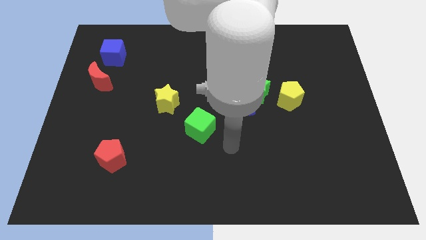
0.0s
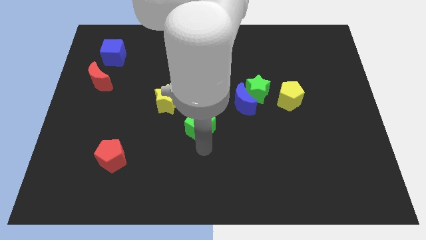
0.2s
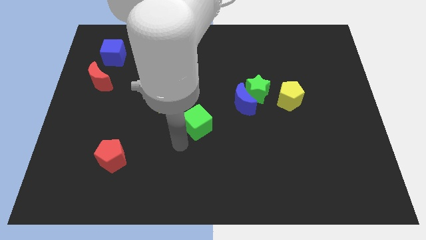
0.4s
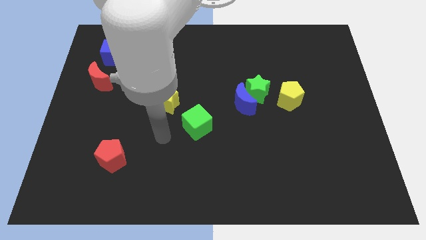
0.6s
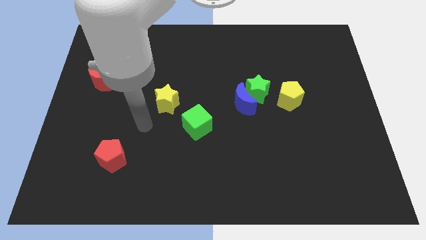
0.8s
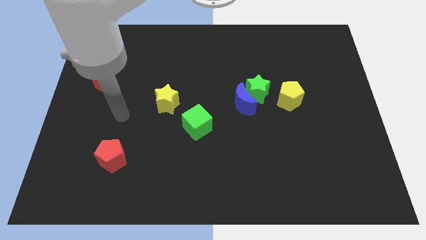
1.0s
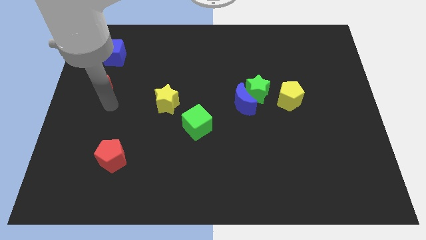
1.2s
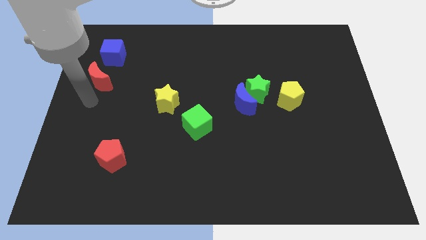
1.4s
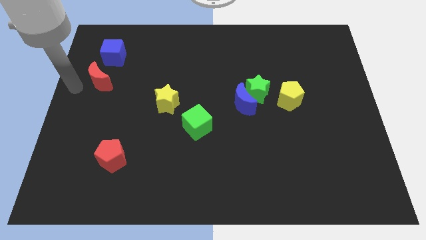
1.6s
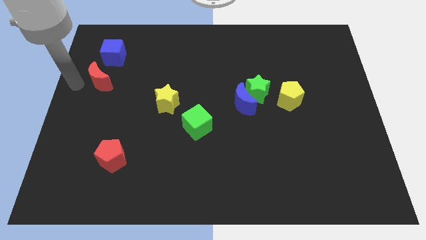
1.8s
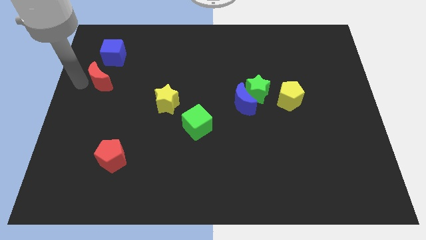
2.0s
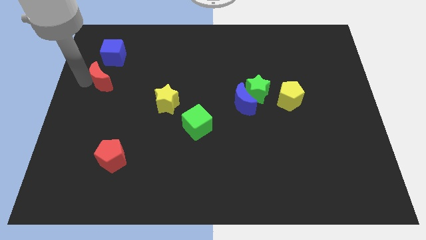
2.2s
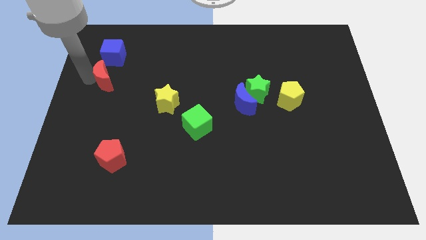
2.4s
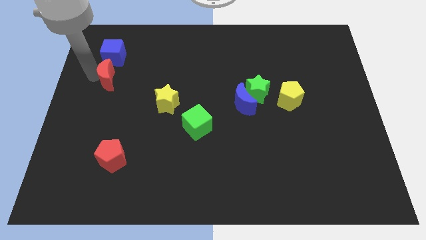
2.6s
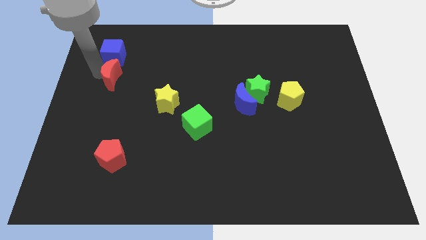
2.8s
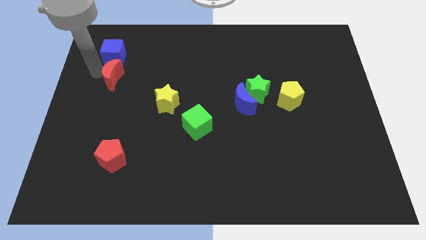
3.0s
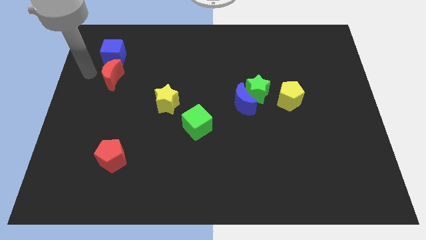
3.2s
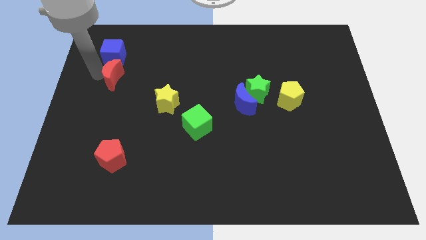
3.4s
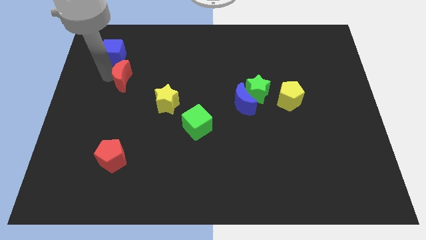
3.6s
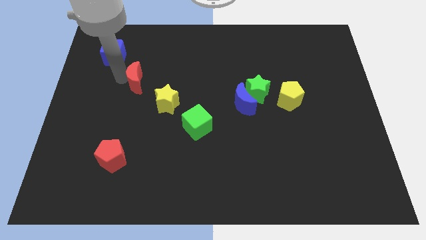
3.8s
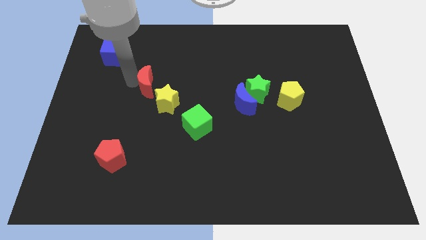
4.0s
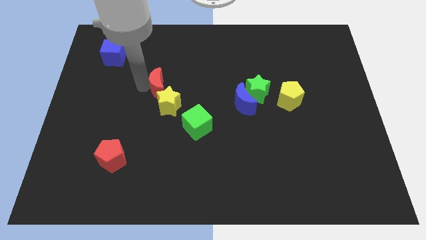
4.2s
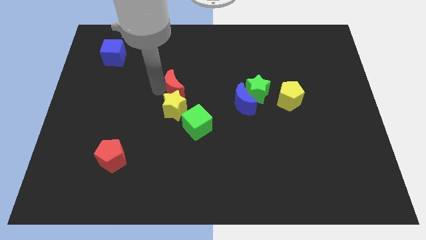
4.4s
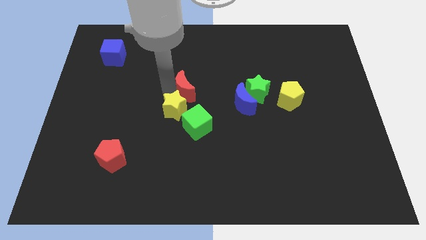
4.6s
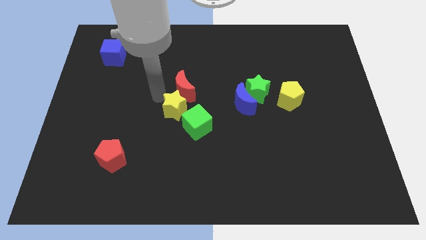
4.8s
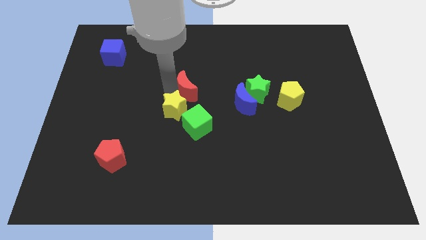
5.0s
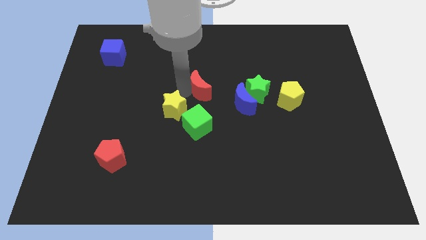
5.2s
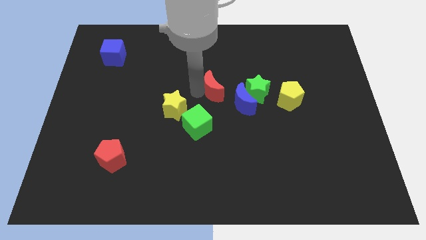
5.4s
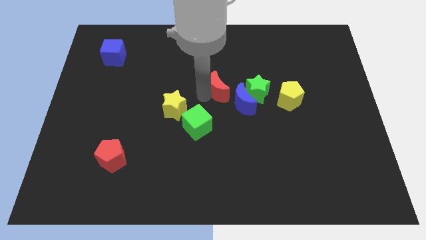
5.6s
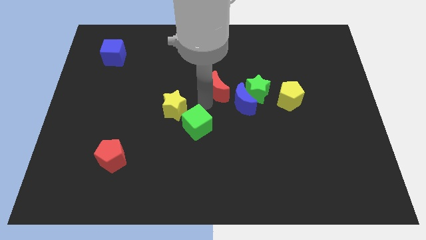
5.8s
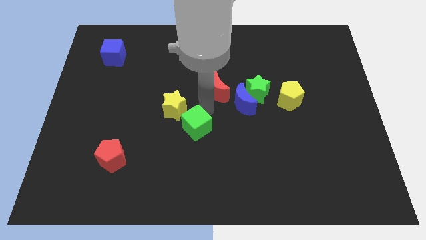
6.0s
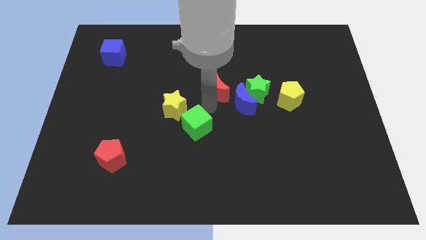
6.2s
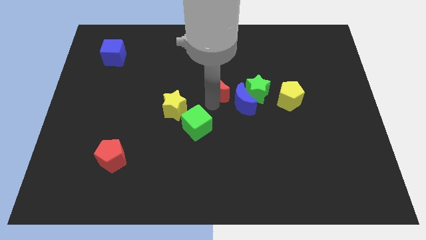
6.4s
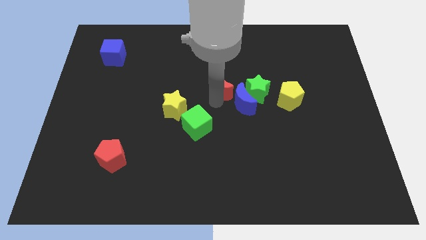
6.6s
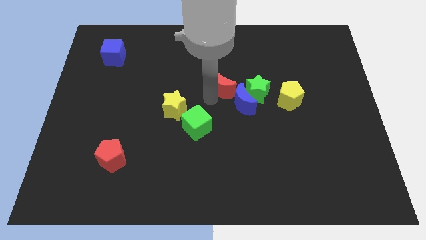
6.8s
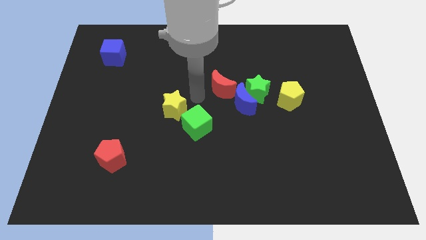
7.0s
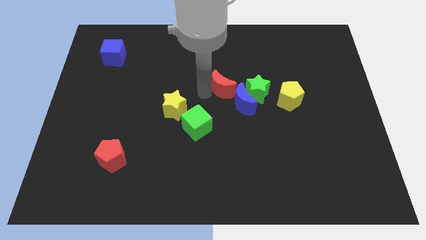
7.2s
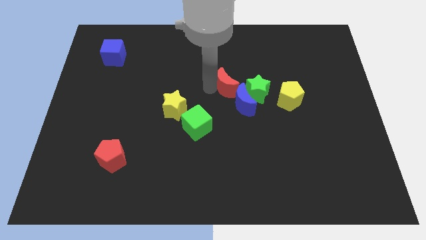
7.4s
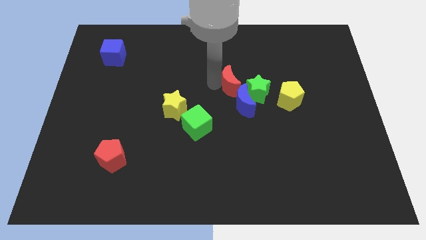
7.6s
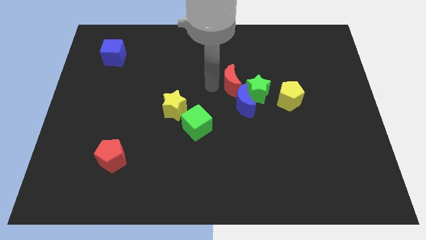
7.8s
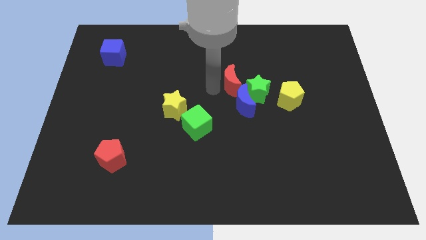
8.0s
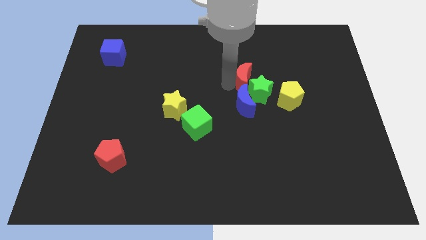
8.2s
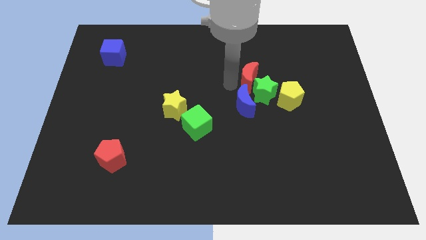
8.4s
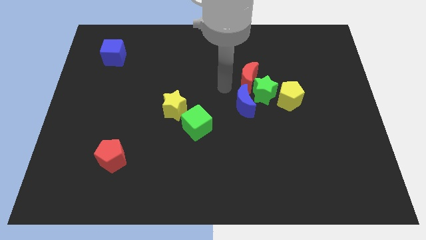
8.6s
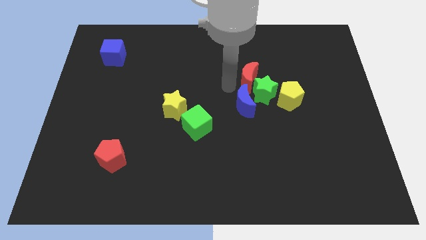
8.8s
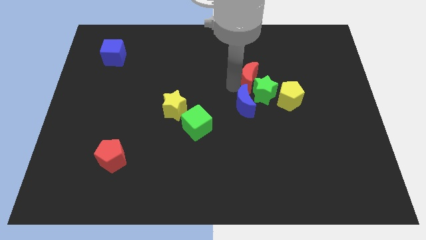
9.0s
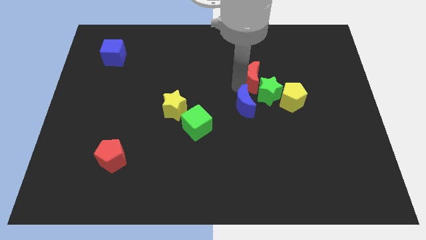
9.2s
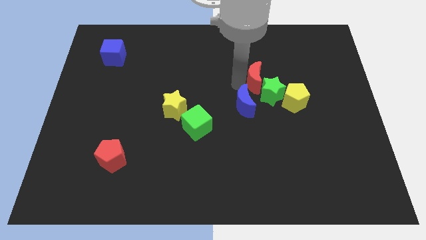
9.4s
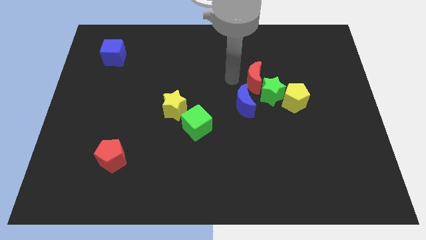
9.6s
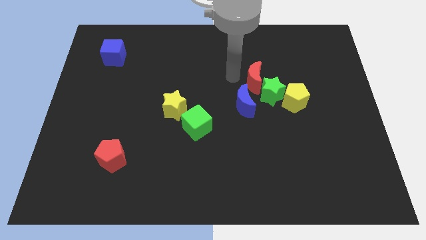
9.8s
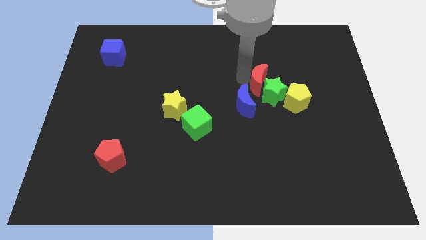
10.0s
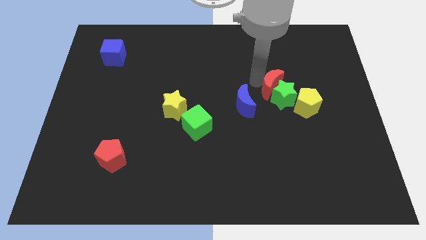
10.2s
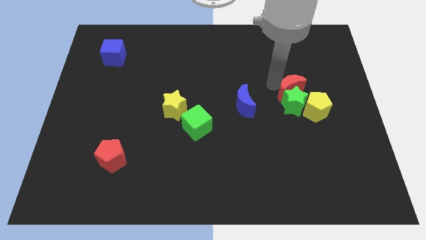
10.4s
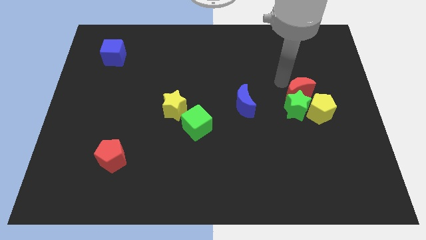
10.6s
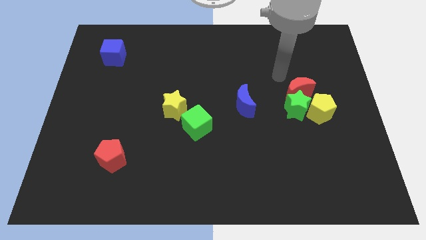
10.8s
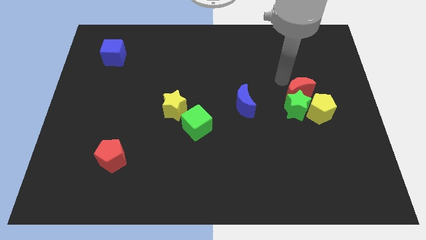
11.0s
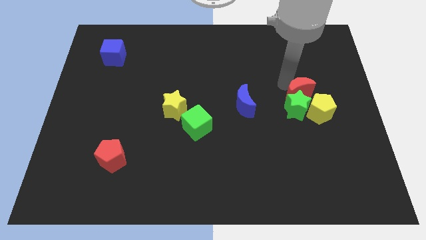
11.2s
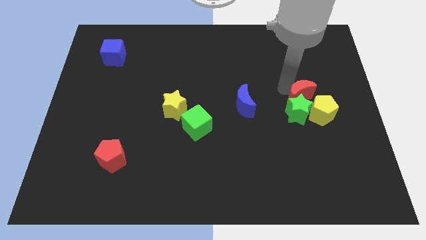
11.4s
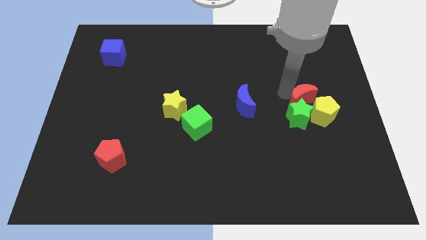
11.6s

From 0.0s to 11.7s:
push the red moon close to the yellow pentagon

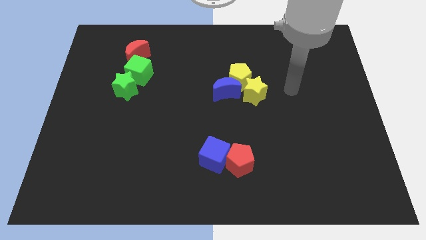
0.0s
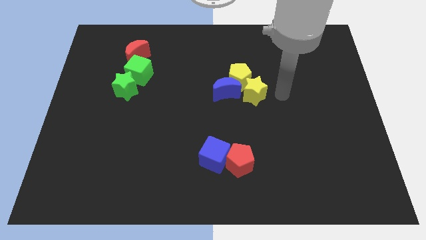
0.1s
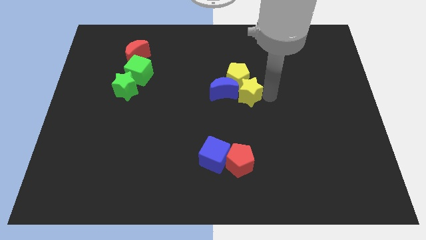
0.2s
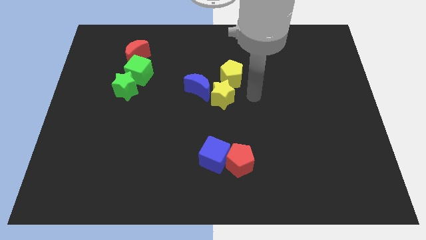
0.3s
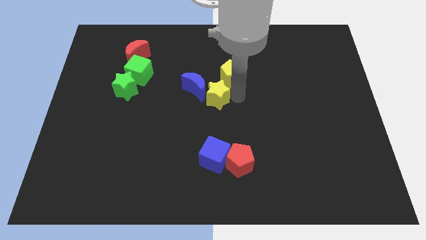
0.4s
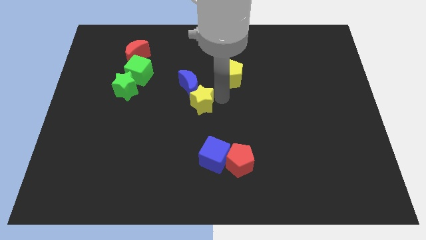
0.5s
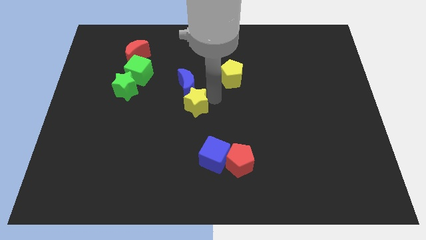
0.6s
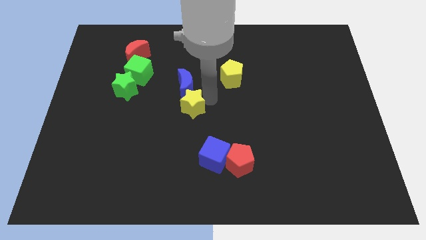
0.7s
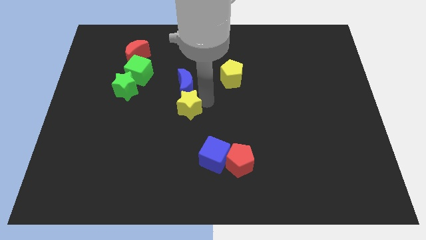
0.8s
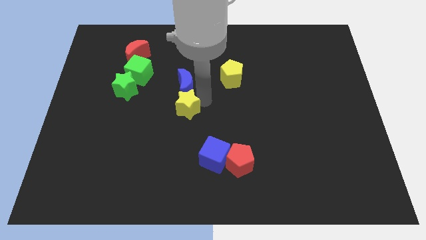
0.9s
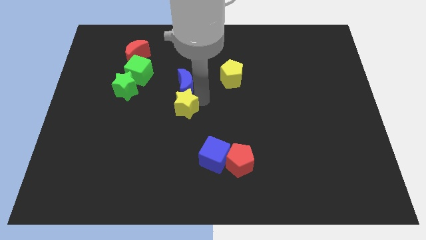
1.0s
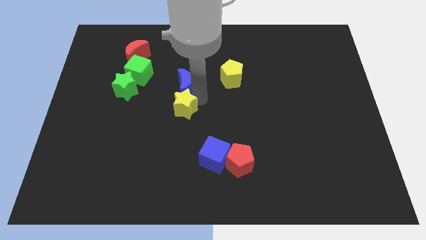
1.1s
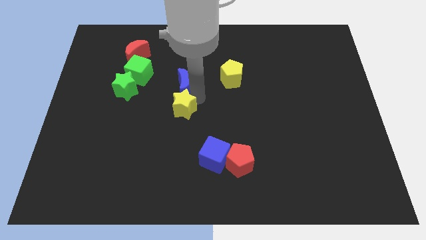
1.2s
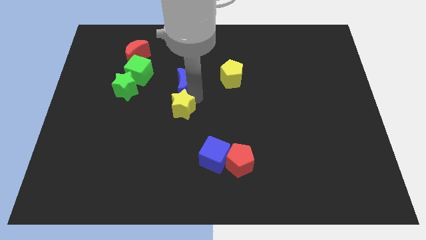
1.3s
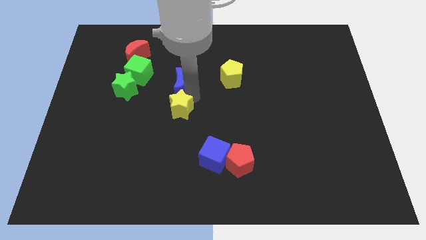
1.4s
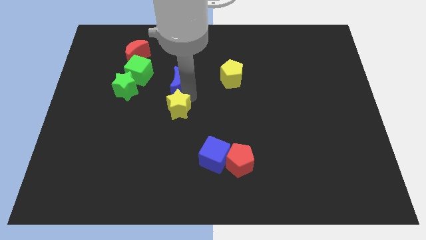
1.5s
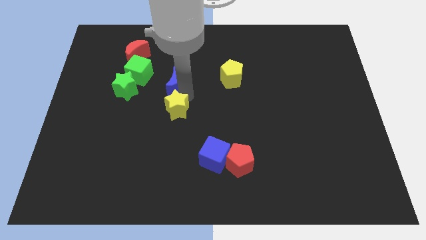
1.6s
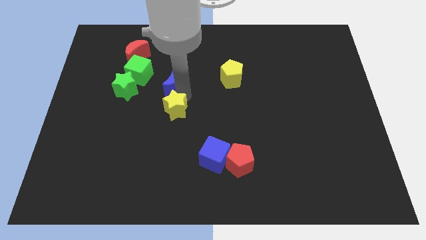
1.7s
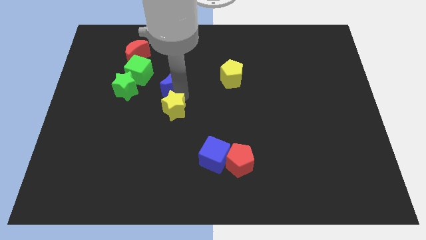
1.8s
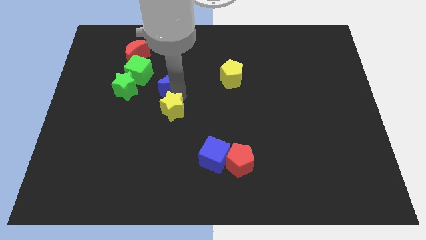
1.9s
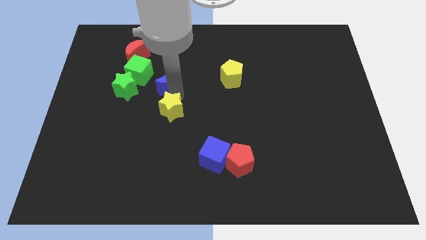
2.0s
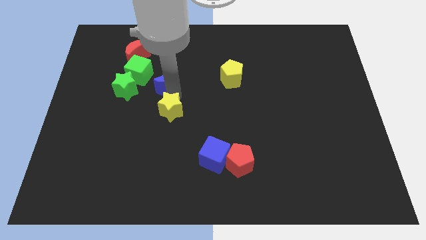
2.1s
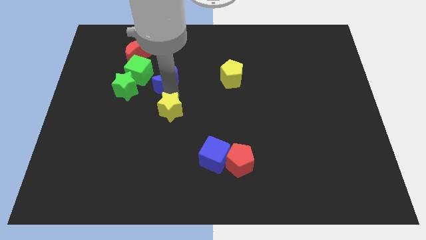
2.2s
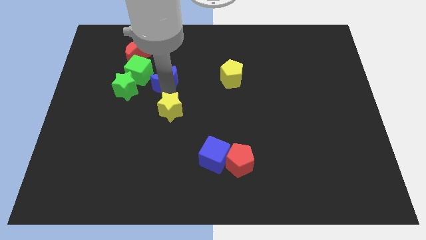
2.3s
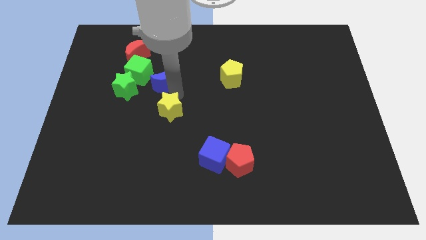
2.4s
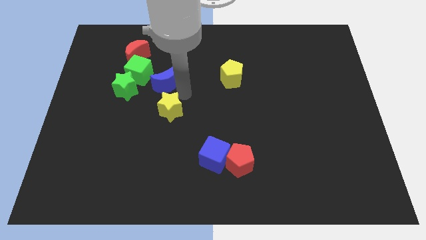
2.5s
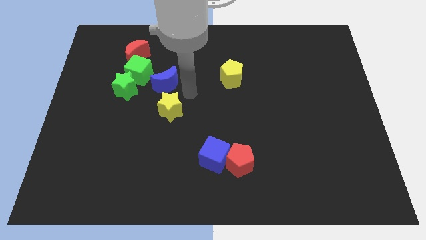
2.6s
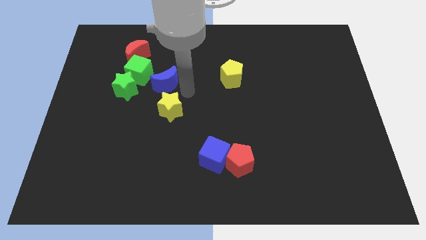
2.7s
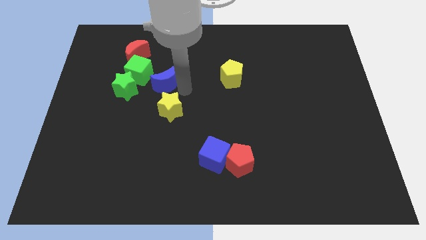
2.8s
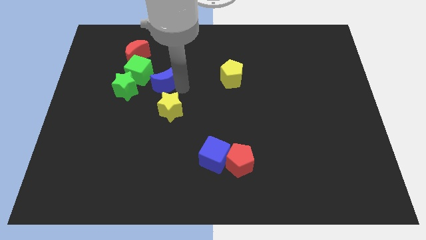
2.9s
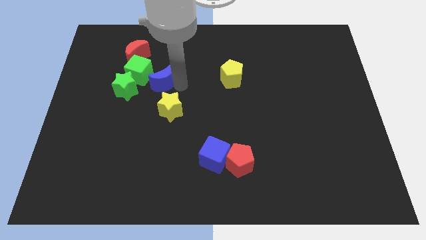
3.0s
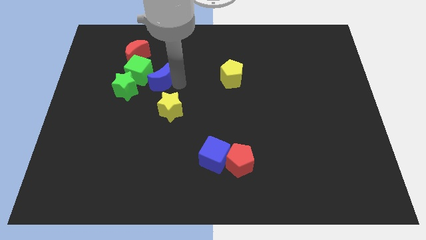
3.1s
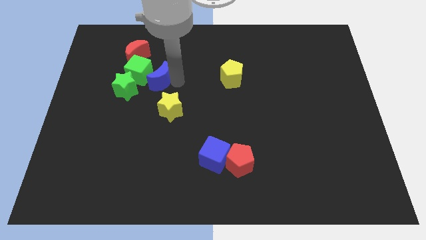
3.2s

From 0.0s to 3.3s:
put the blue moon close to the green cube
